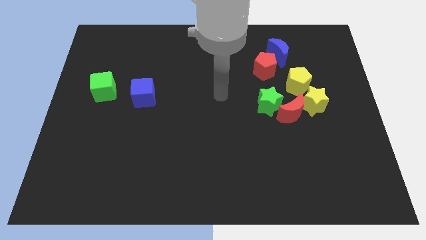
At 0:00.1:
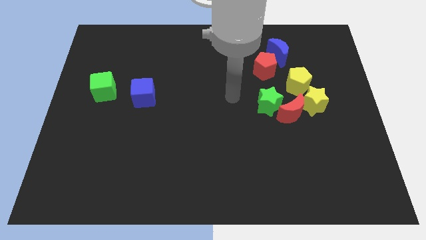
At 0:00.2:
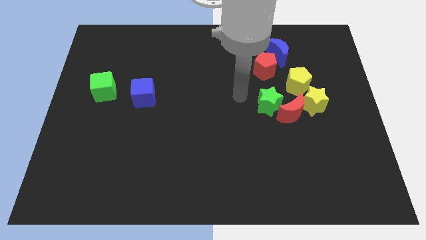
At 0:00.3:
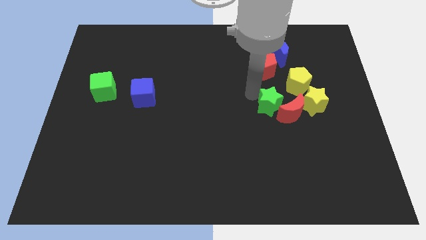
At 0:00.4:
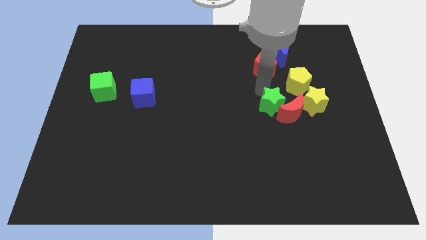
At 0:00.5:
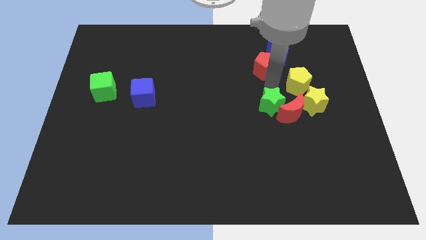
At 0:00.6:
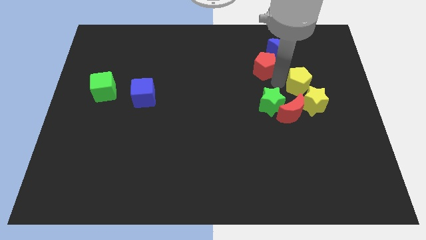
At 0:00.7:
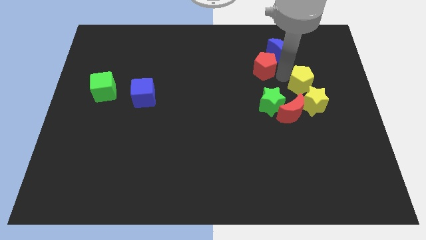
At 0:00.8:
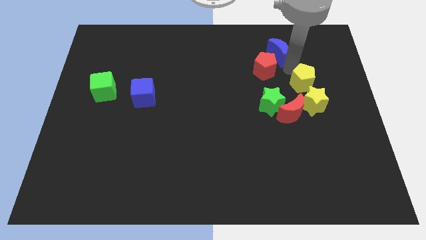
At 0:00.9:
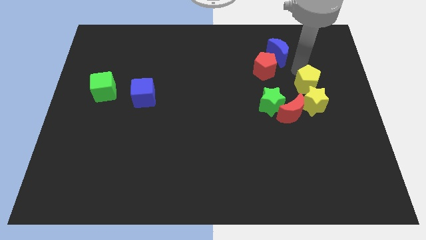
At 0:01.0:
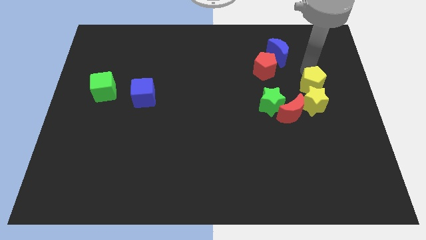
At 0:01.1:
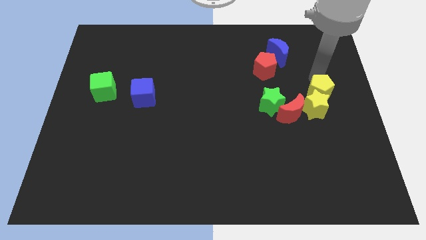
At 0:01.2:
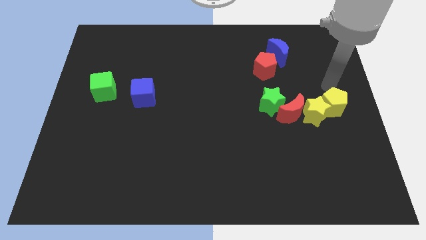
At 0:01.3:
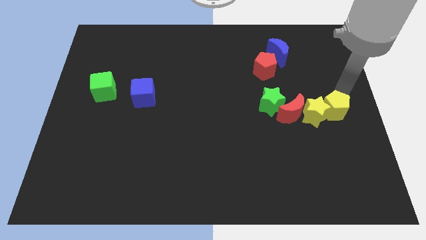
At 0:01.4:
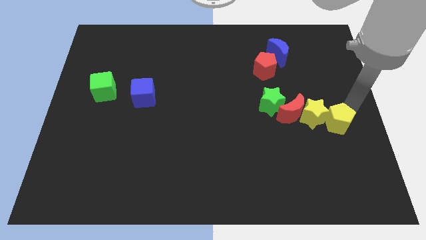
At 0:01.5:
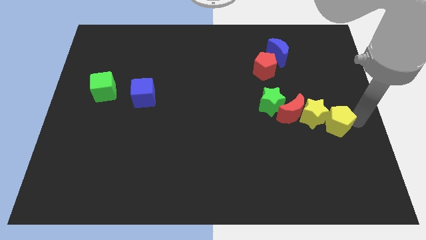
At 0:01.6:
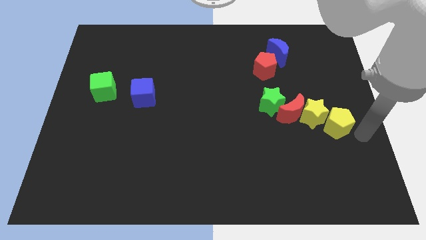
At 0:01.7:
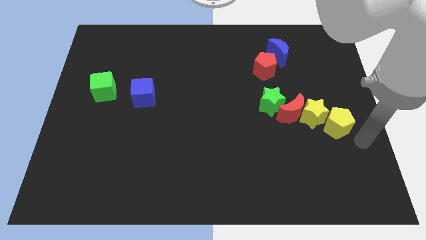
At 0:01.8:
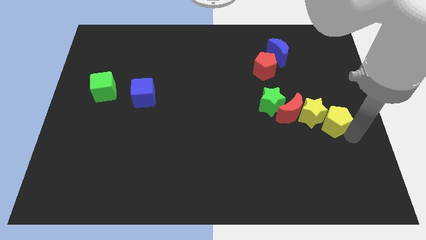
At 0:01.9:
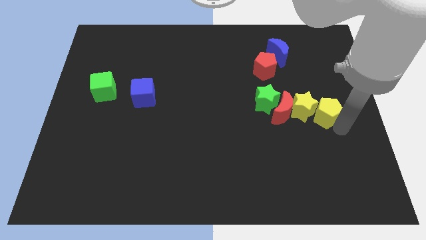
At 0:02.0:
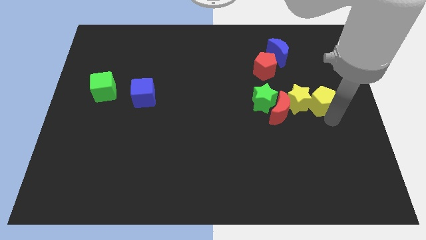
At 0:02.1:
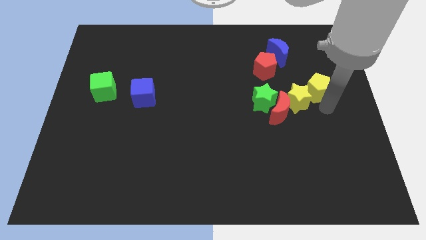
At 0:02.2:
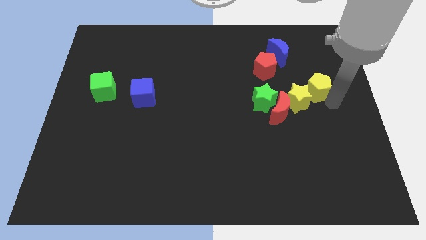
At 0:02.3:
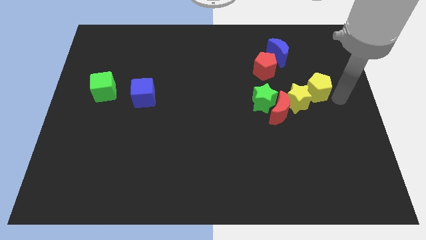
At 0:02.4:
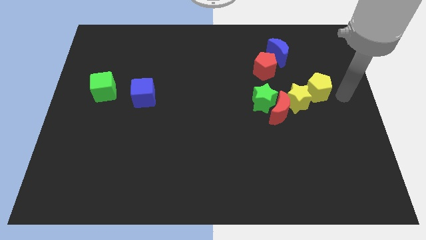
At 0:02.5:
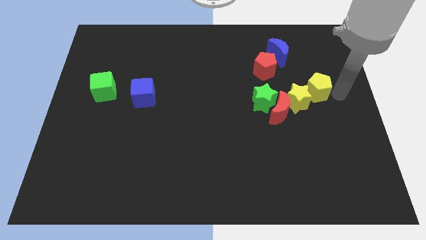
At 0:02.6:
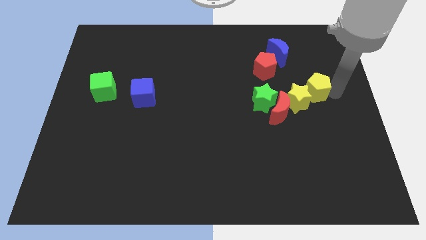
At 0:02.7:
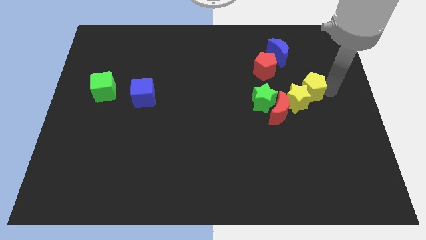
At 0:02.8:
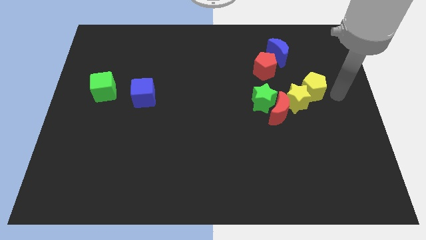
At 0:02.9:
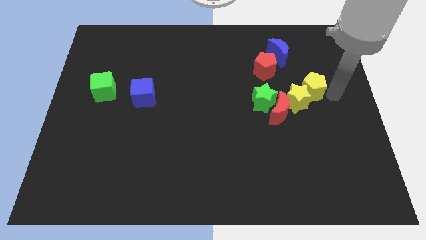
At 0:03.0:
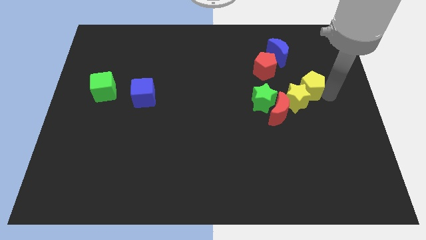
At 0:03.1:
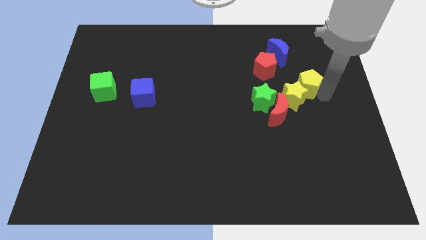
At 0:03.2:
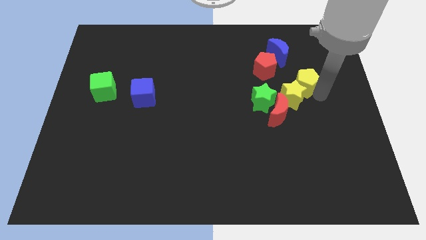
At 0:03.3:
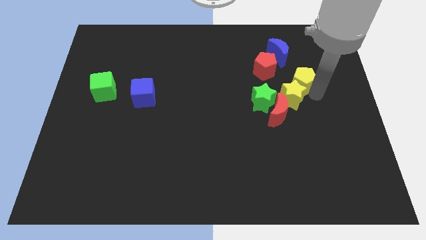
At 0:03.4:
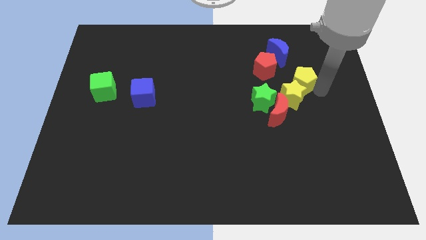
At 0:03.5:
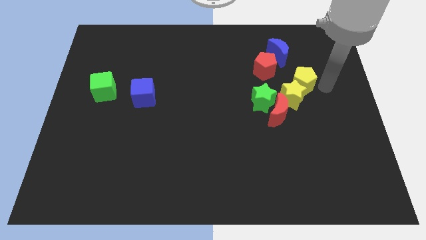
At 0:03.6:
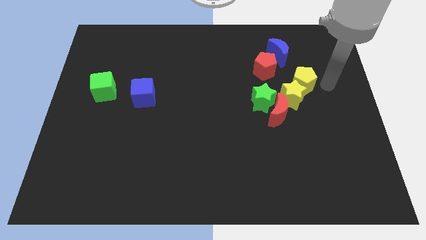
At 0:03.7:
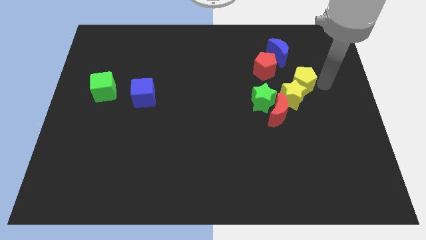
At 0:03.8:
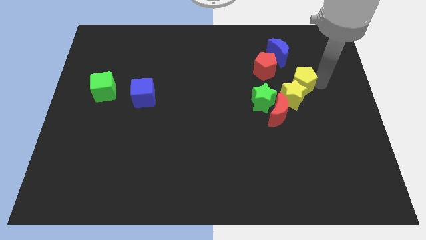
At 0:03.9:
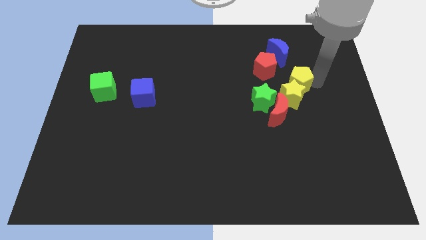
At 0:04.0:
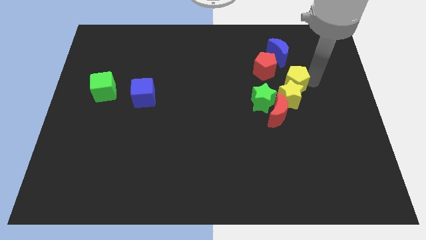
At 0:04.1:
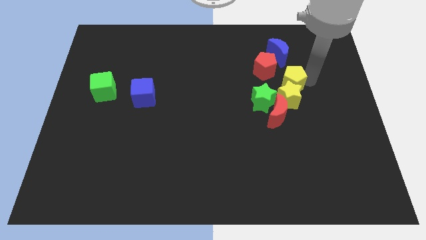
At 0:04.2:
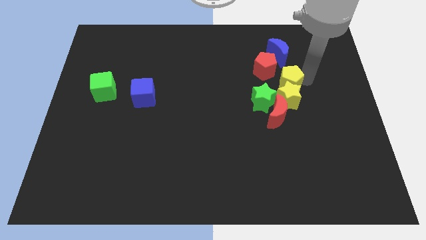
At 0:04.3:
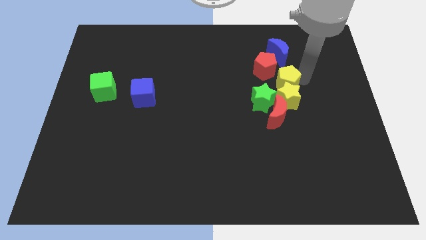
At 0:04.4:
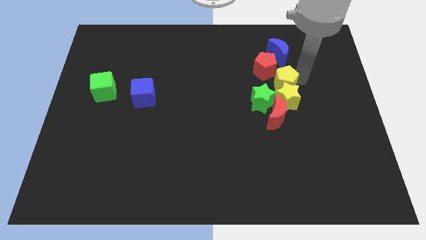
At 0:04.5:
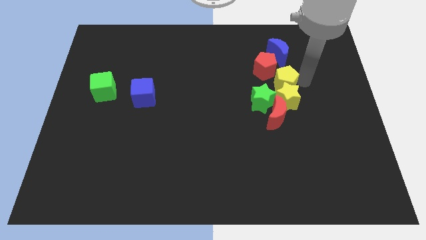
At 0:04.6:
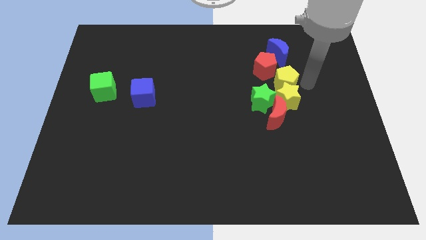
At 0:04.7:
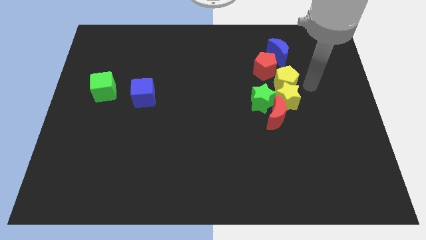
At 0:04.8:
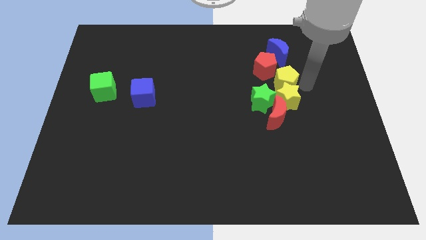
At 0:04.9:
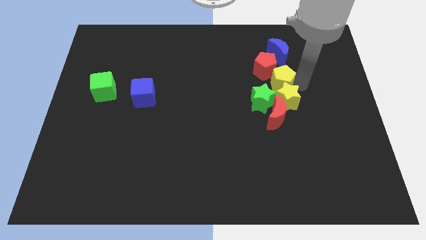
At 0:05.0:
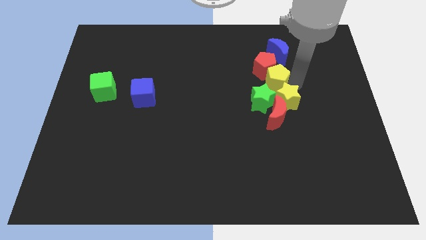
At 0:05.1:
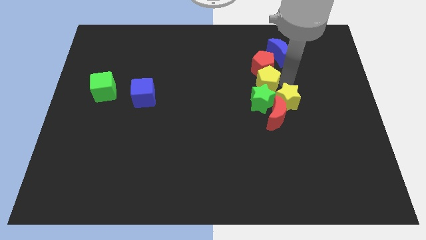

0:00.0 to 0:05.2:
slide the yellow pentagon diagonally down and to the left of the red pentagon

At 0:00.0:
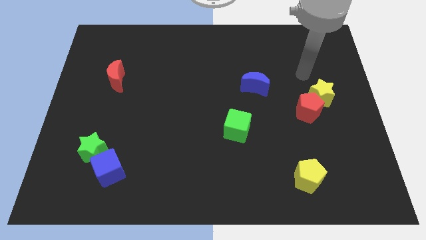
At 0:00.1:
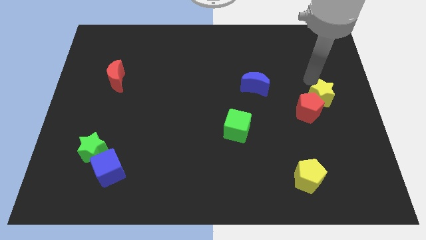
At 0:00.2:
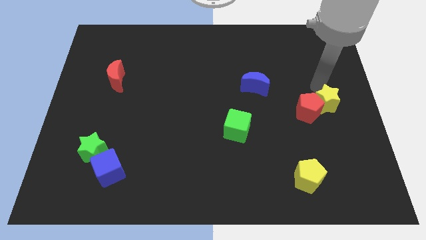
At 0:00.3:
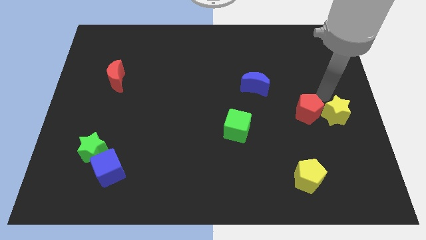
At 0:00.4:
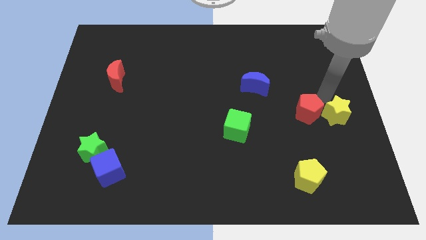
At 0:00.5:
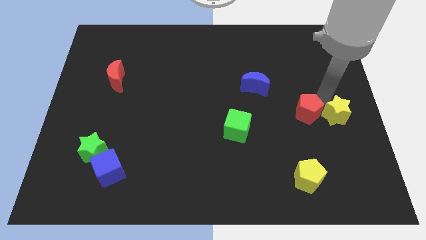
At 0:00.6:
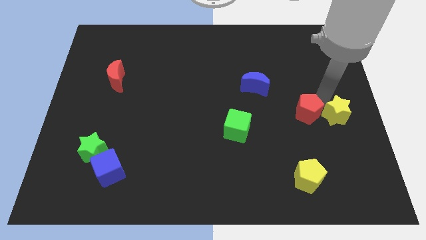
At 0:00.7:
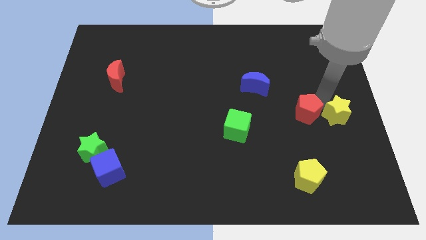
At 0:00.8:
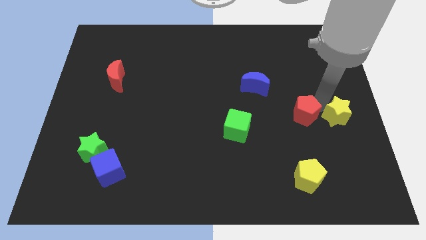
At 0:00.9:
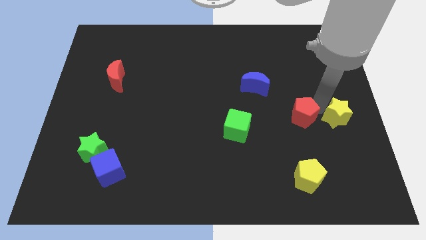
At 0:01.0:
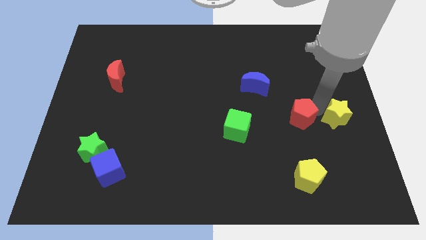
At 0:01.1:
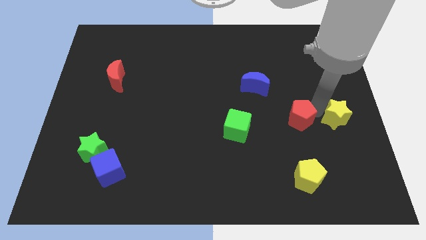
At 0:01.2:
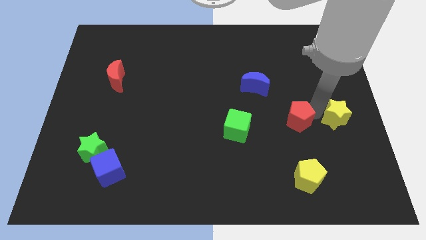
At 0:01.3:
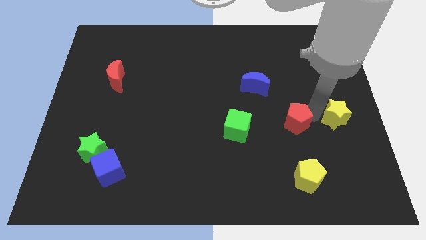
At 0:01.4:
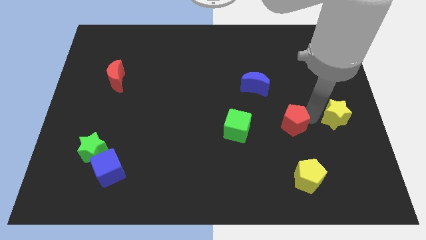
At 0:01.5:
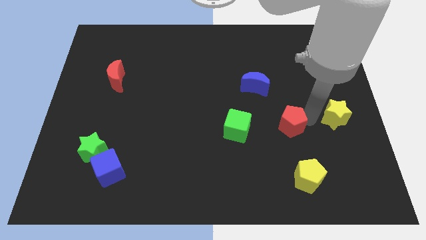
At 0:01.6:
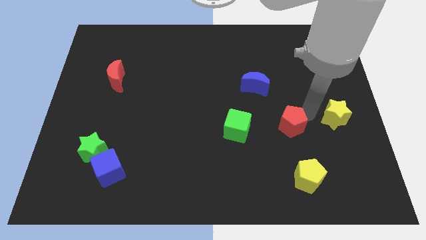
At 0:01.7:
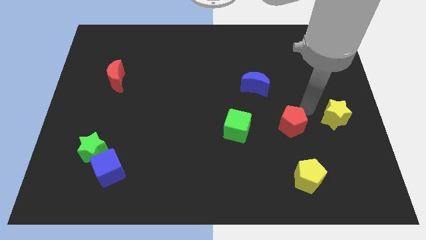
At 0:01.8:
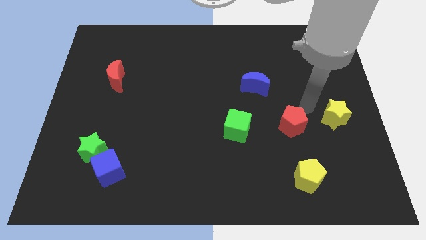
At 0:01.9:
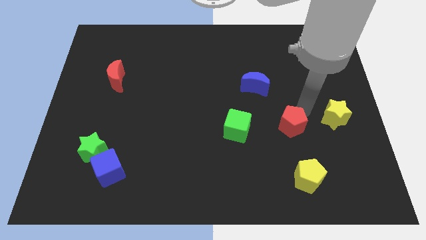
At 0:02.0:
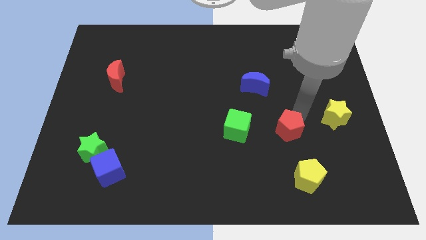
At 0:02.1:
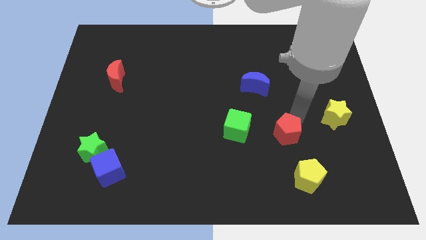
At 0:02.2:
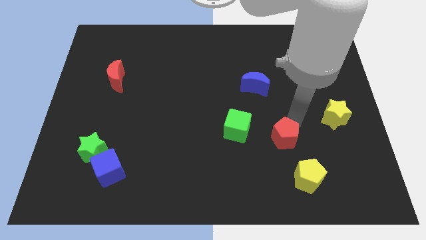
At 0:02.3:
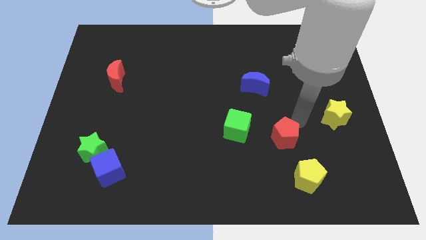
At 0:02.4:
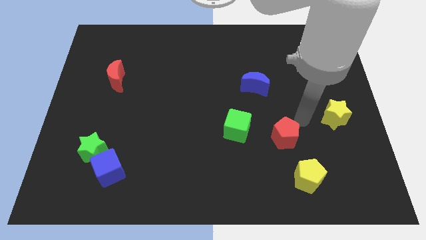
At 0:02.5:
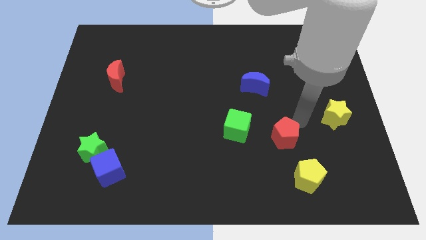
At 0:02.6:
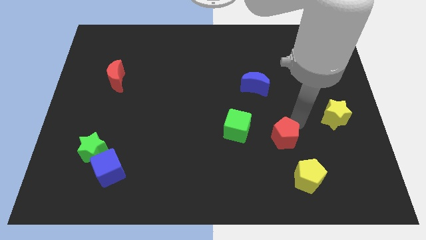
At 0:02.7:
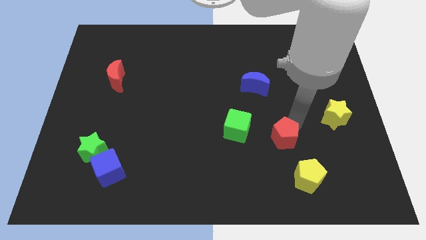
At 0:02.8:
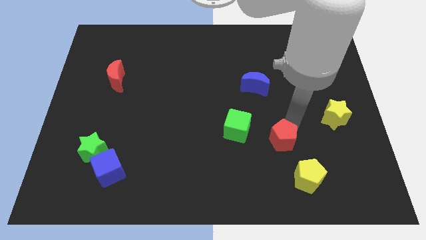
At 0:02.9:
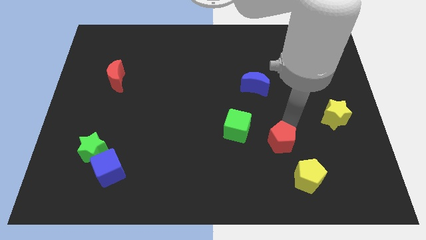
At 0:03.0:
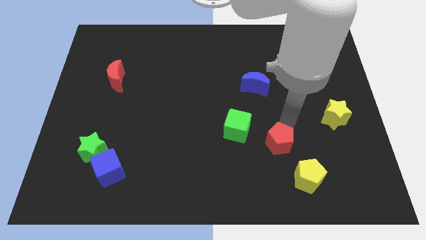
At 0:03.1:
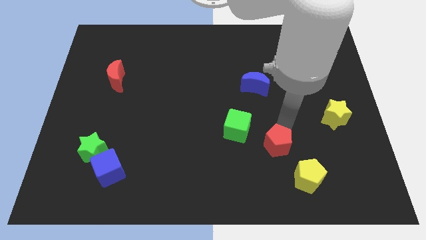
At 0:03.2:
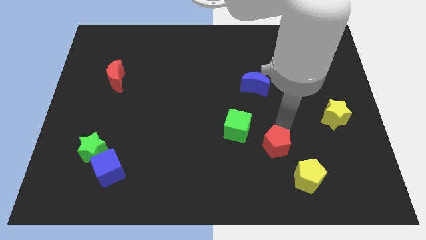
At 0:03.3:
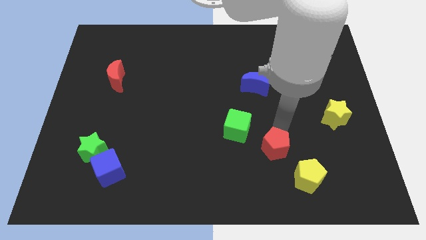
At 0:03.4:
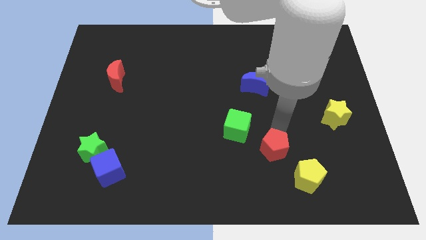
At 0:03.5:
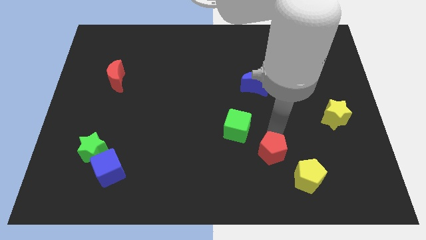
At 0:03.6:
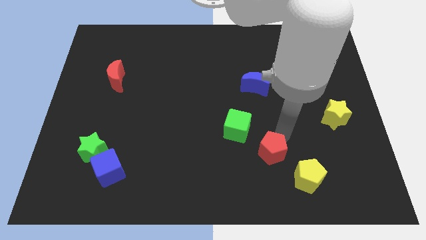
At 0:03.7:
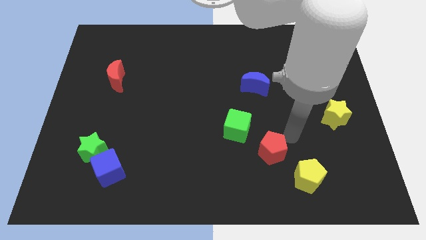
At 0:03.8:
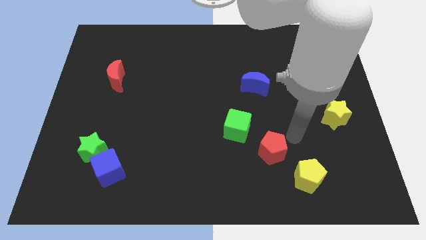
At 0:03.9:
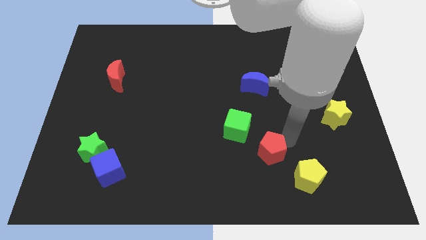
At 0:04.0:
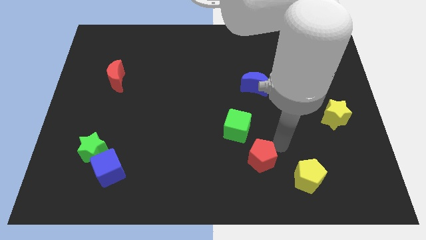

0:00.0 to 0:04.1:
put the red pentagon to the bottom side of the green cube
